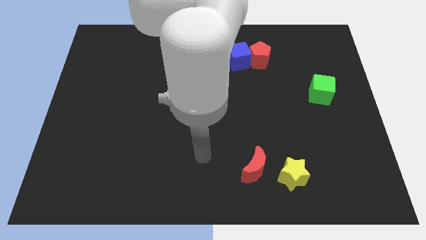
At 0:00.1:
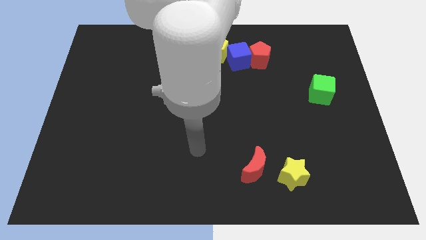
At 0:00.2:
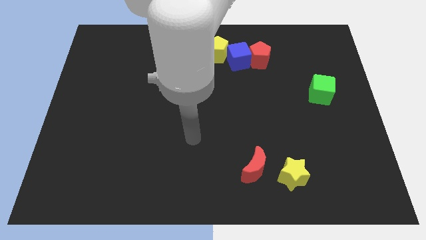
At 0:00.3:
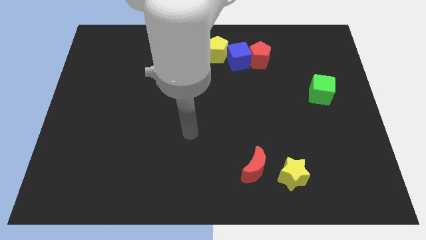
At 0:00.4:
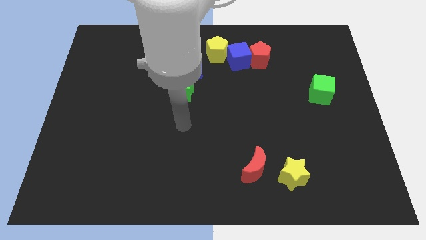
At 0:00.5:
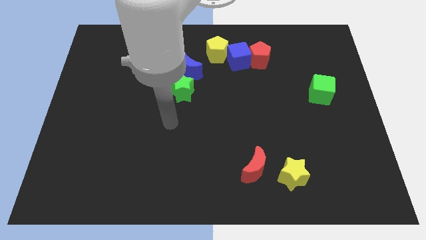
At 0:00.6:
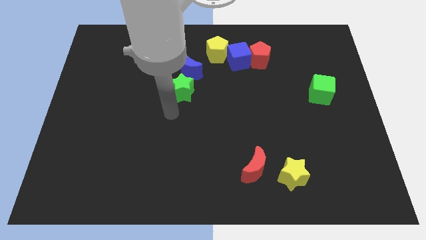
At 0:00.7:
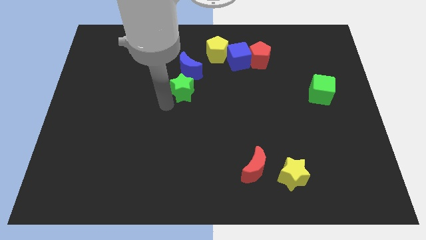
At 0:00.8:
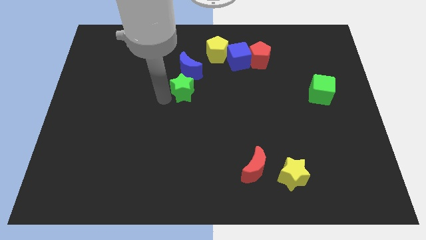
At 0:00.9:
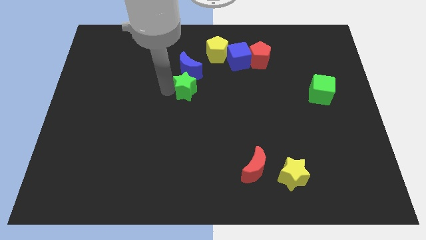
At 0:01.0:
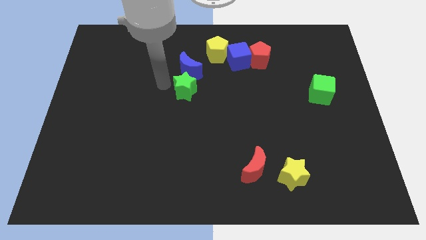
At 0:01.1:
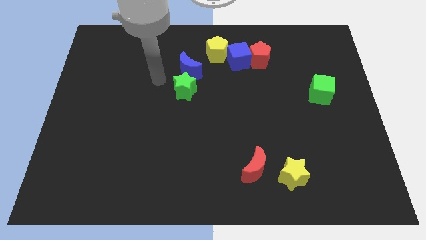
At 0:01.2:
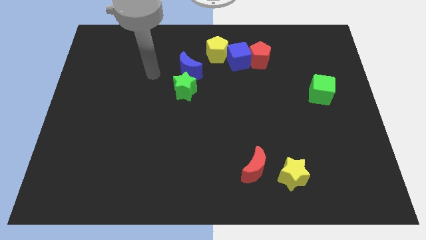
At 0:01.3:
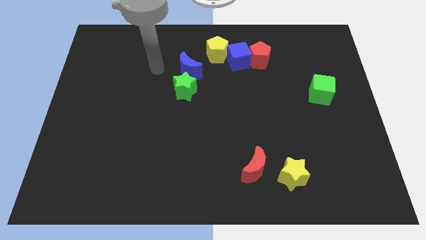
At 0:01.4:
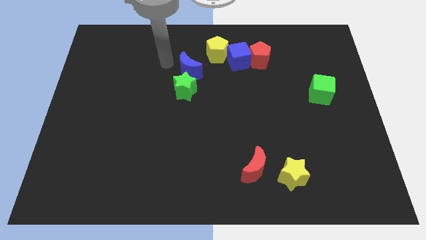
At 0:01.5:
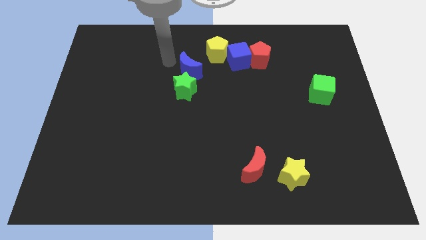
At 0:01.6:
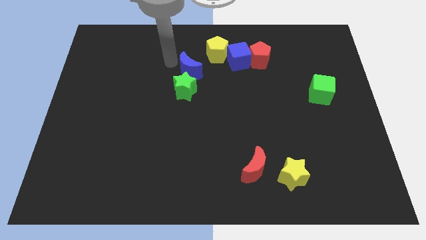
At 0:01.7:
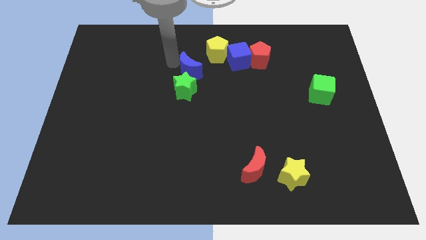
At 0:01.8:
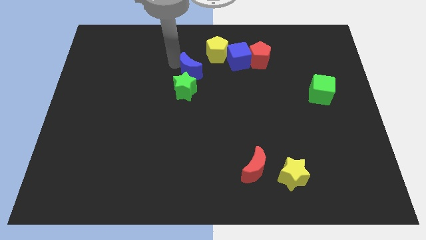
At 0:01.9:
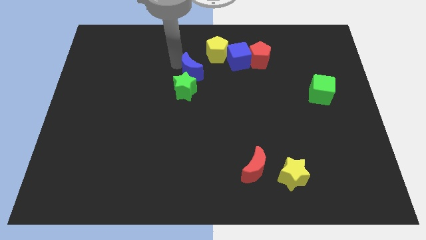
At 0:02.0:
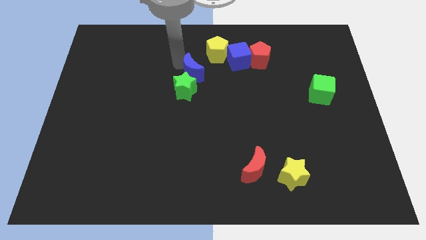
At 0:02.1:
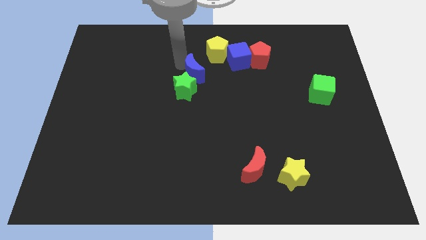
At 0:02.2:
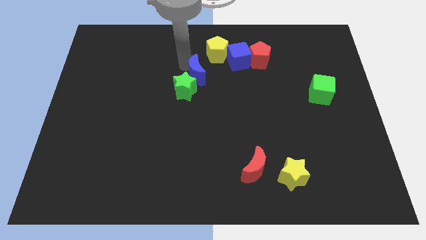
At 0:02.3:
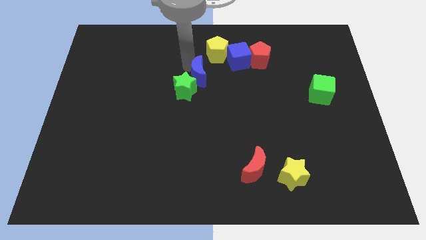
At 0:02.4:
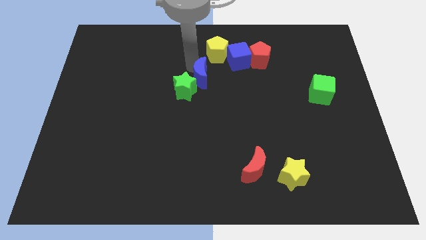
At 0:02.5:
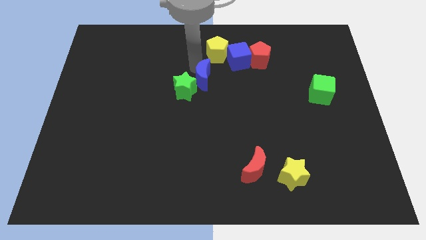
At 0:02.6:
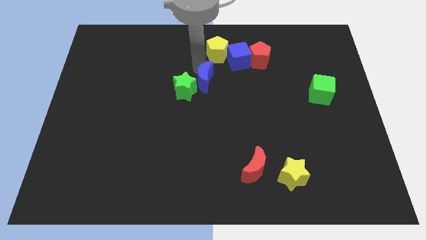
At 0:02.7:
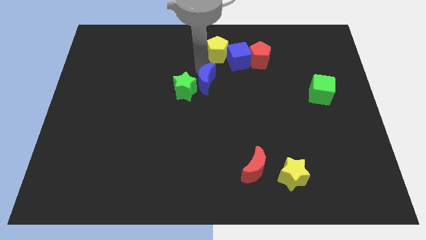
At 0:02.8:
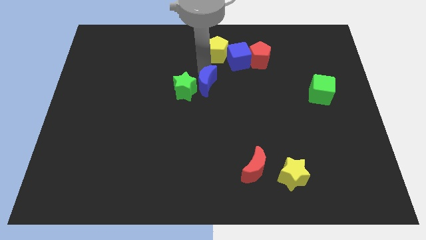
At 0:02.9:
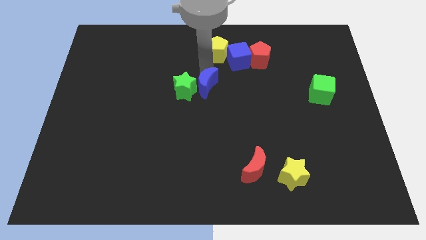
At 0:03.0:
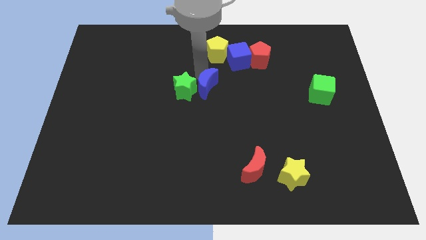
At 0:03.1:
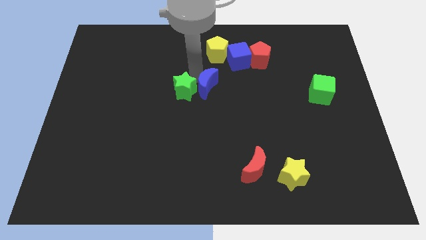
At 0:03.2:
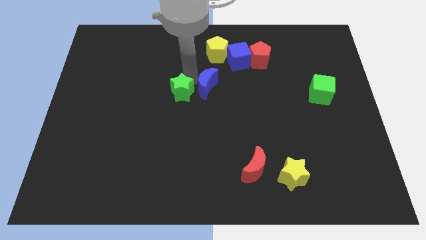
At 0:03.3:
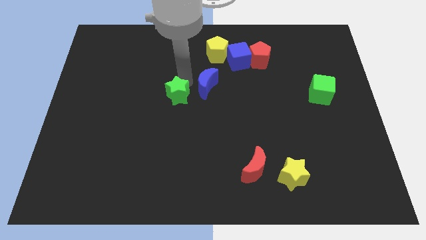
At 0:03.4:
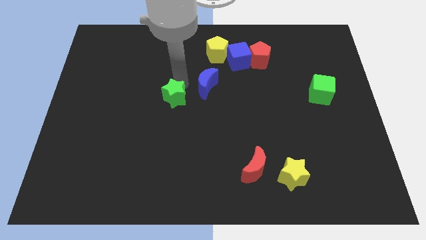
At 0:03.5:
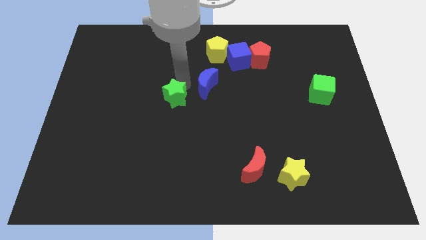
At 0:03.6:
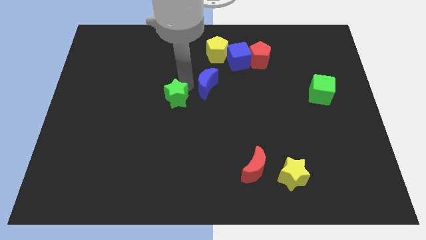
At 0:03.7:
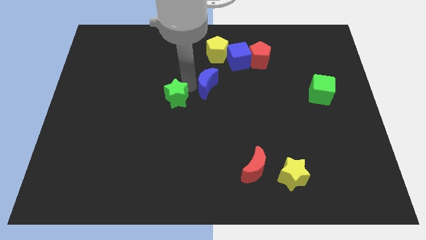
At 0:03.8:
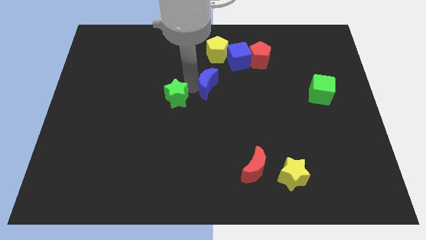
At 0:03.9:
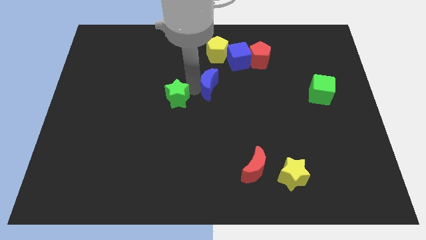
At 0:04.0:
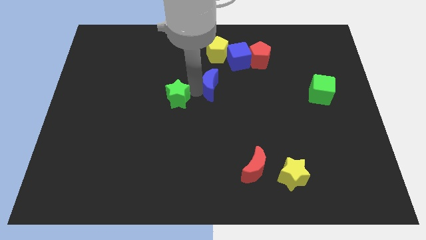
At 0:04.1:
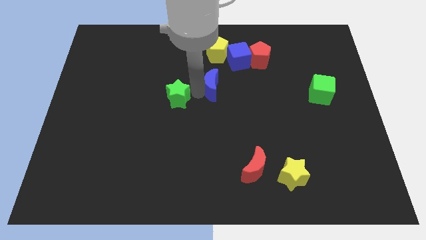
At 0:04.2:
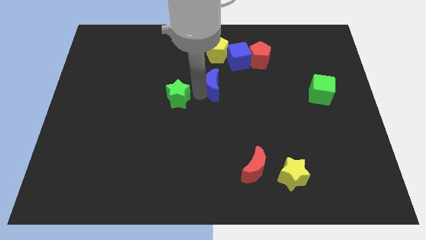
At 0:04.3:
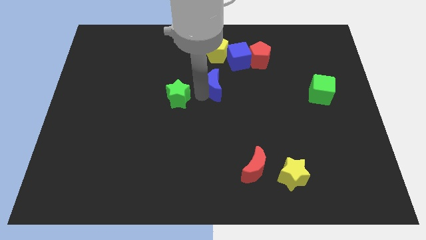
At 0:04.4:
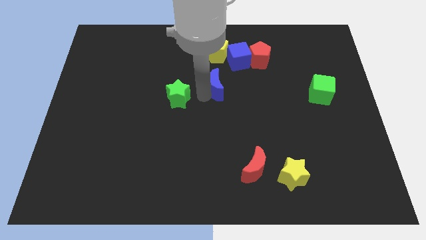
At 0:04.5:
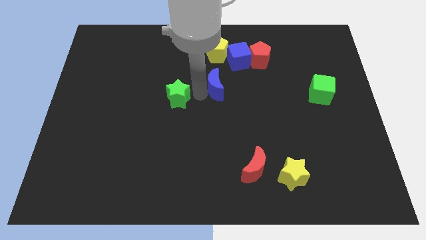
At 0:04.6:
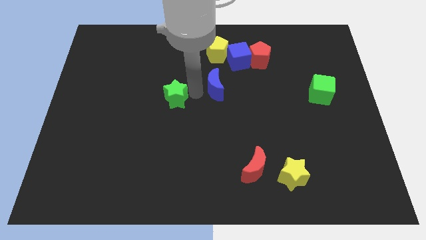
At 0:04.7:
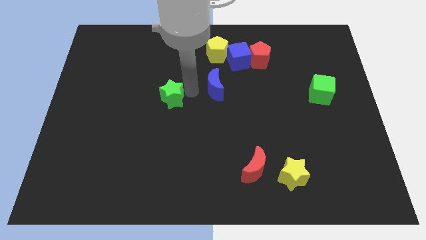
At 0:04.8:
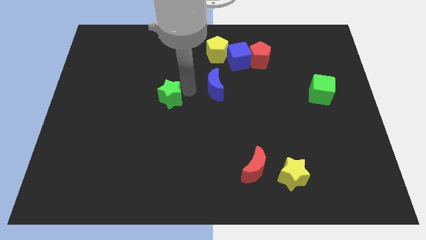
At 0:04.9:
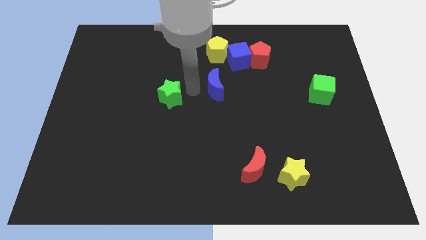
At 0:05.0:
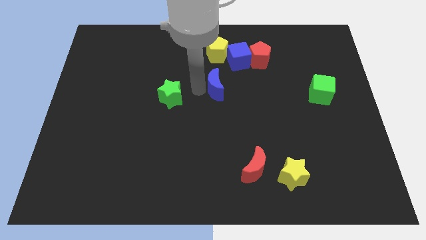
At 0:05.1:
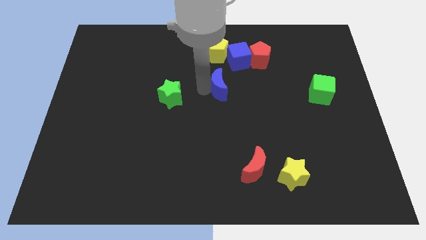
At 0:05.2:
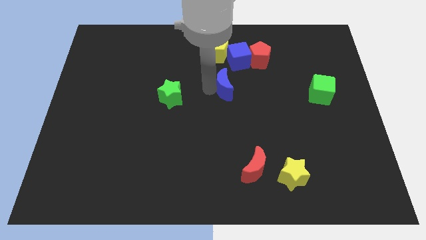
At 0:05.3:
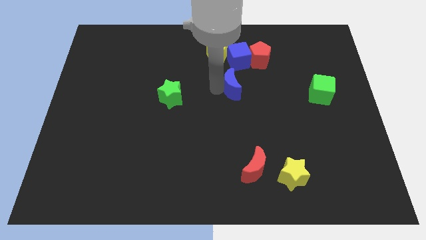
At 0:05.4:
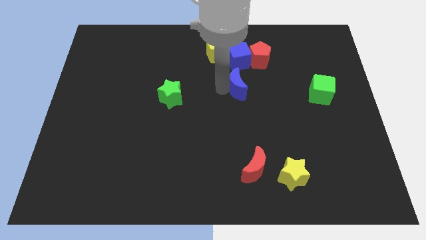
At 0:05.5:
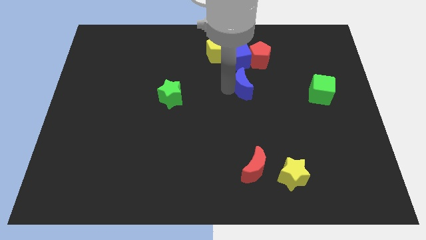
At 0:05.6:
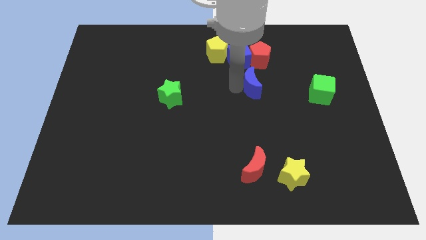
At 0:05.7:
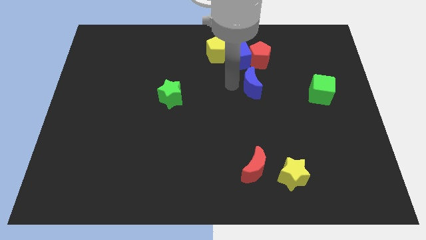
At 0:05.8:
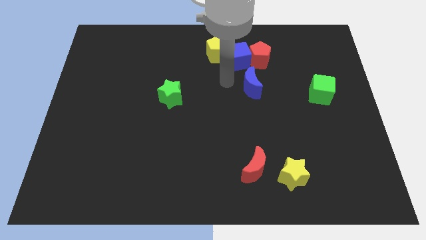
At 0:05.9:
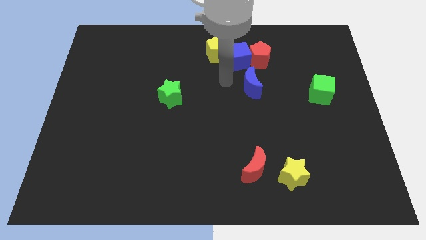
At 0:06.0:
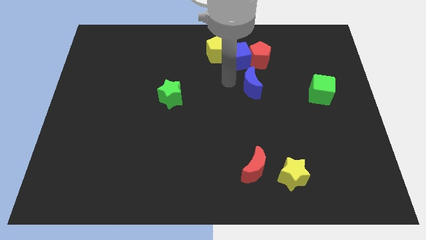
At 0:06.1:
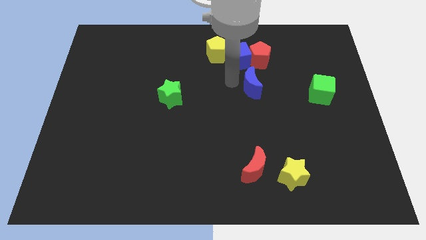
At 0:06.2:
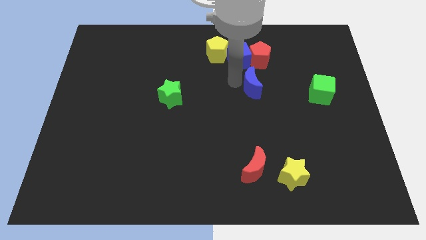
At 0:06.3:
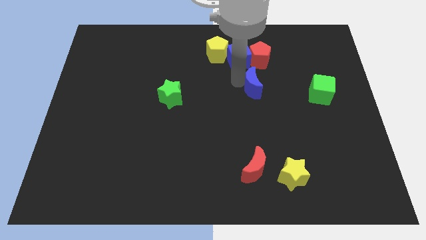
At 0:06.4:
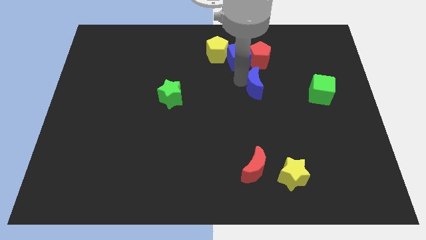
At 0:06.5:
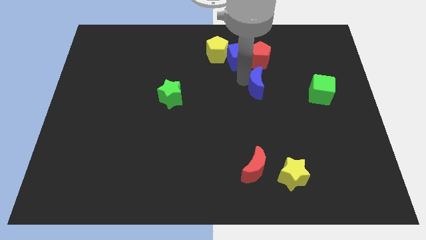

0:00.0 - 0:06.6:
put the blue moon left of the green cube

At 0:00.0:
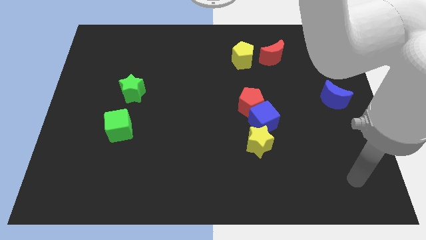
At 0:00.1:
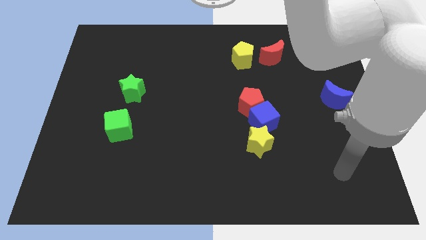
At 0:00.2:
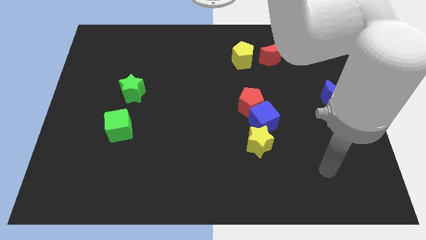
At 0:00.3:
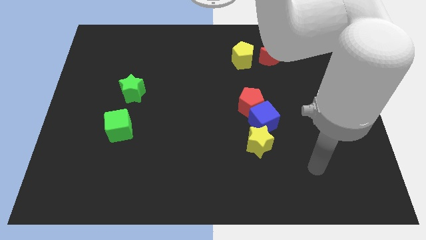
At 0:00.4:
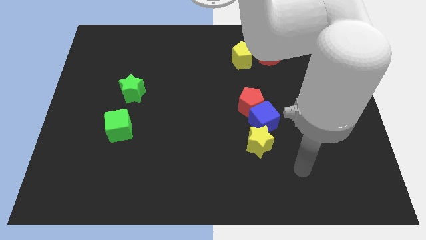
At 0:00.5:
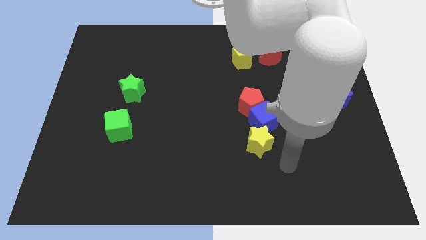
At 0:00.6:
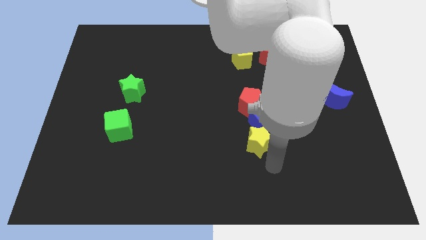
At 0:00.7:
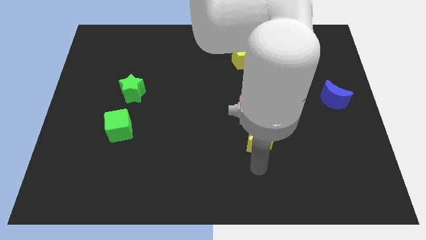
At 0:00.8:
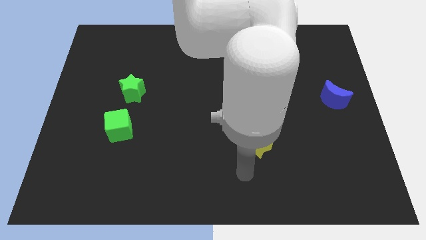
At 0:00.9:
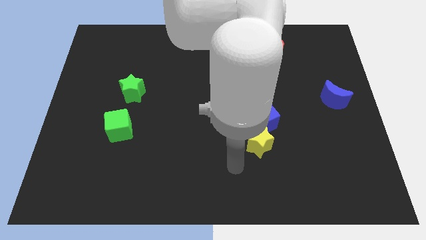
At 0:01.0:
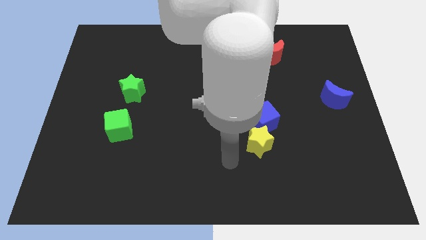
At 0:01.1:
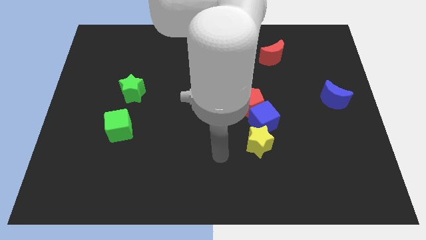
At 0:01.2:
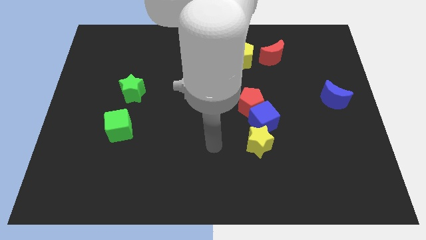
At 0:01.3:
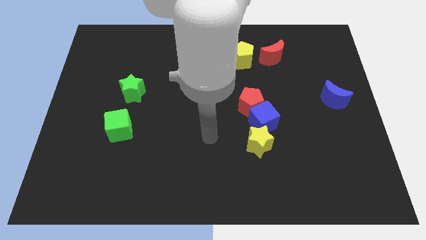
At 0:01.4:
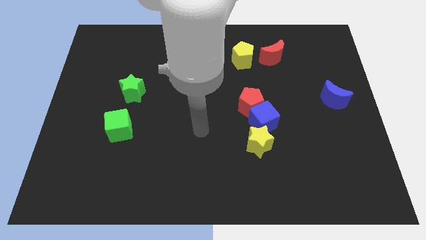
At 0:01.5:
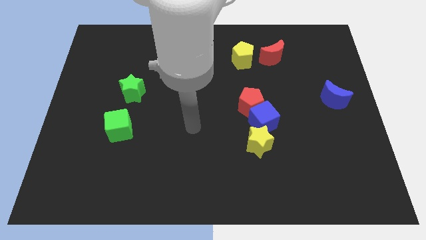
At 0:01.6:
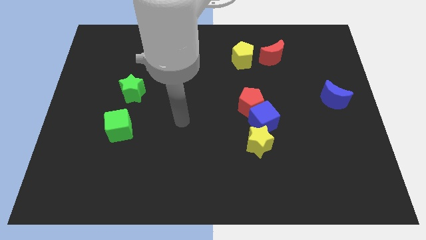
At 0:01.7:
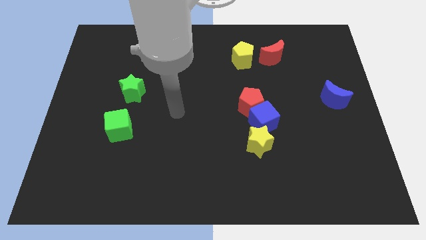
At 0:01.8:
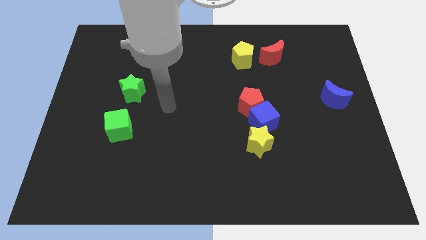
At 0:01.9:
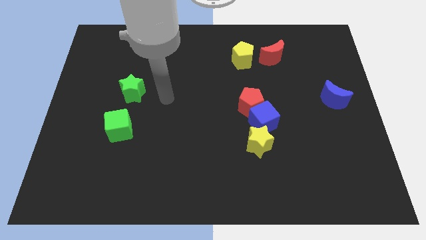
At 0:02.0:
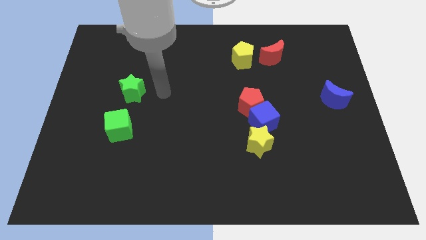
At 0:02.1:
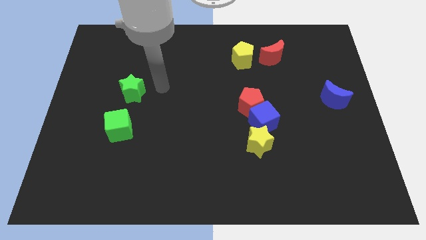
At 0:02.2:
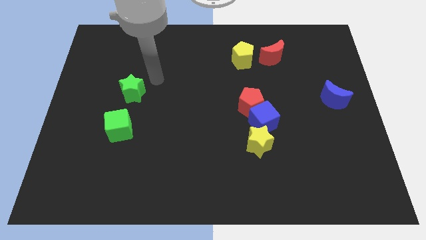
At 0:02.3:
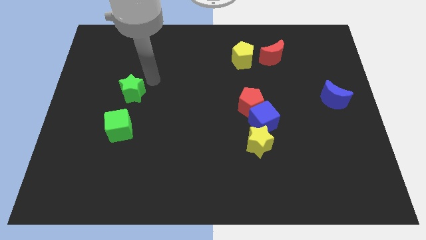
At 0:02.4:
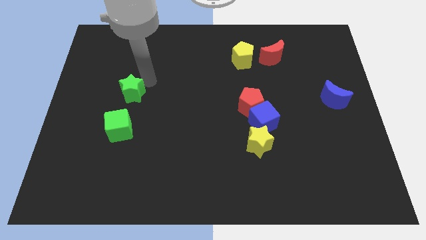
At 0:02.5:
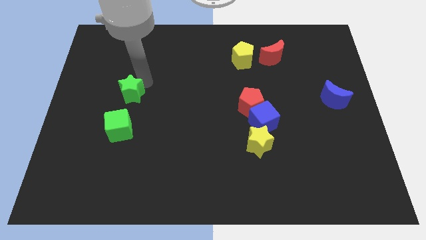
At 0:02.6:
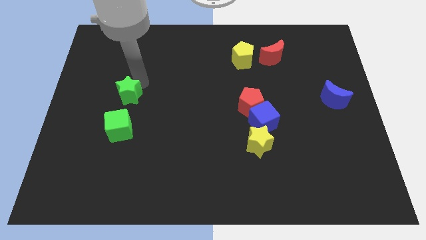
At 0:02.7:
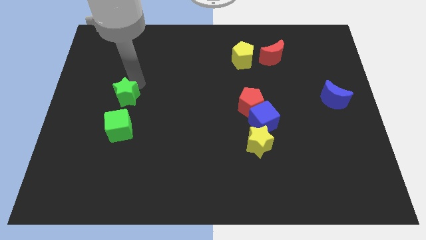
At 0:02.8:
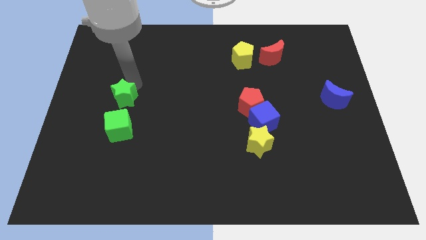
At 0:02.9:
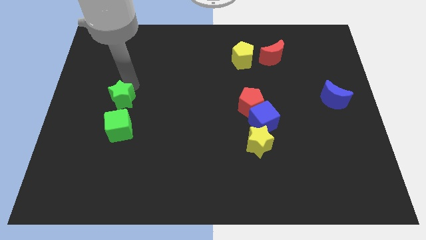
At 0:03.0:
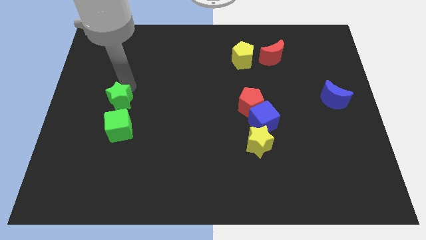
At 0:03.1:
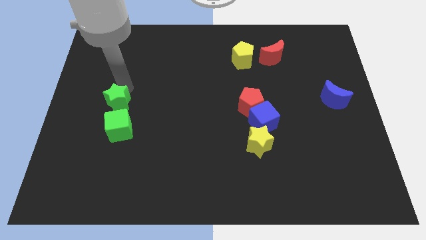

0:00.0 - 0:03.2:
put the green star to the top left of the green cube
